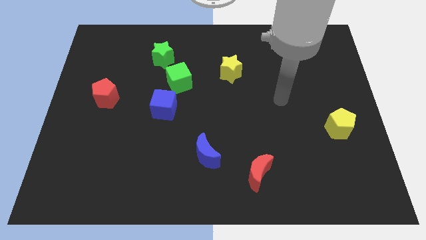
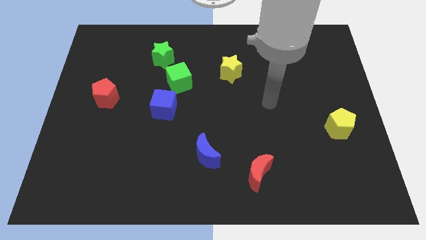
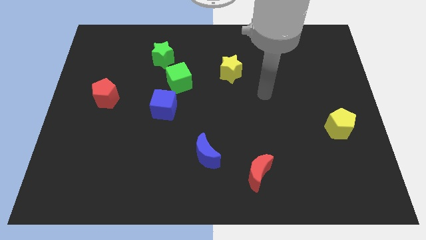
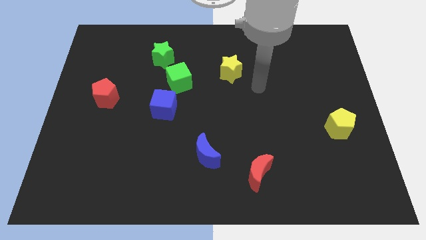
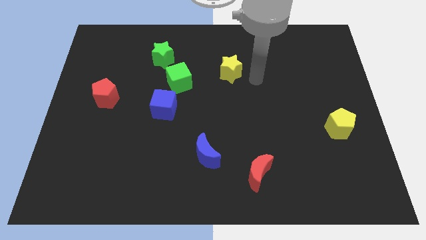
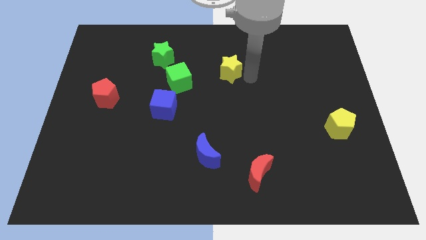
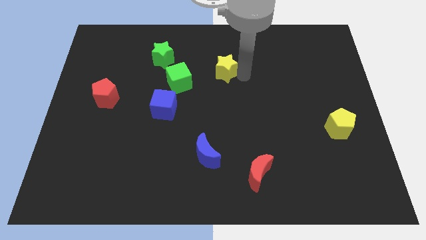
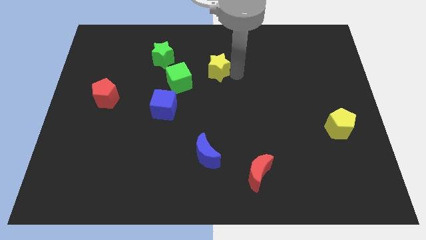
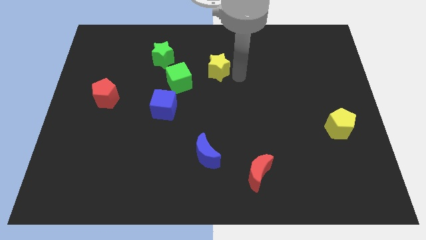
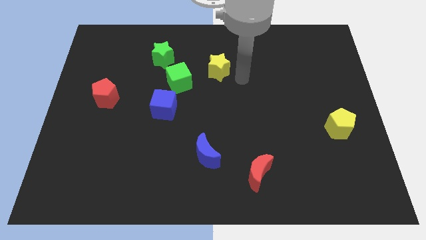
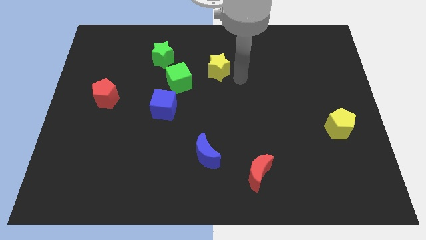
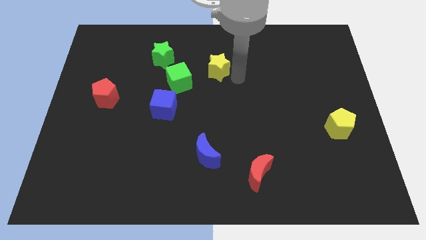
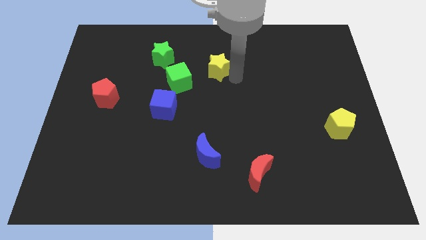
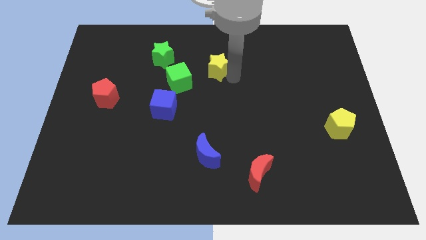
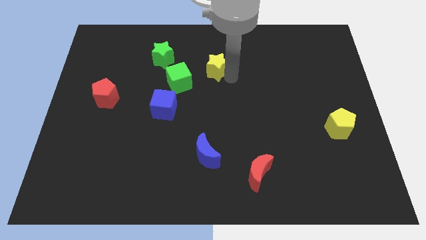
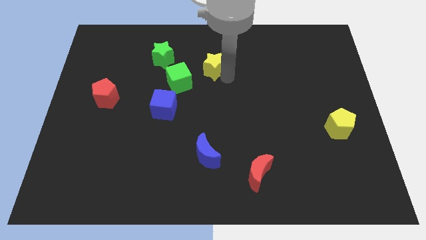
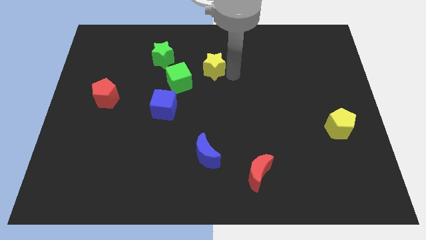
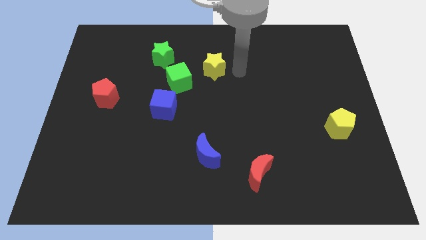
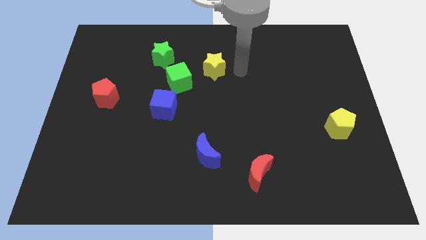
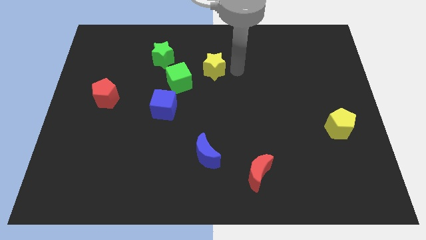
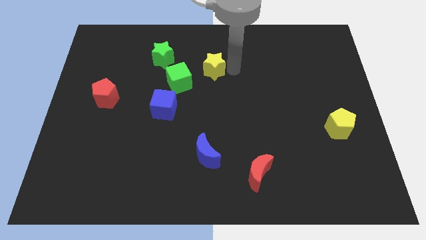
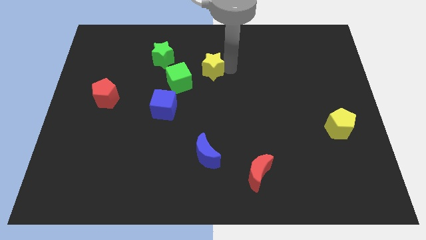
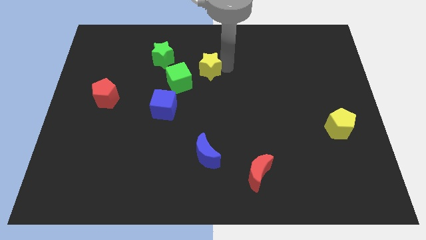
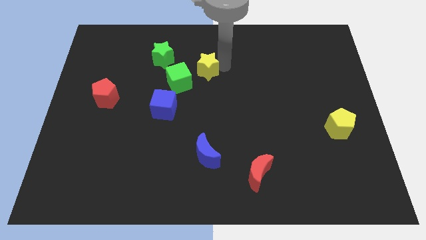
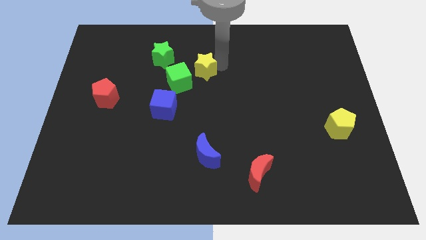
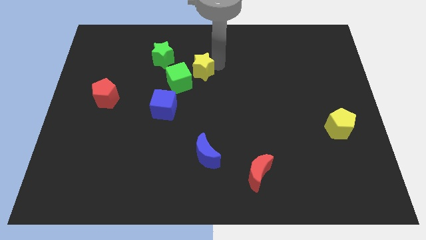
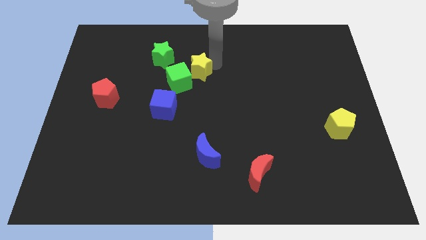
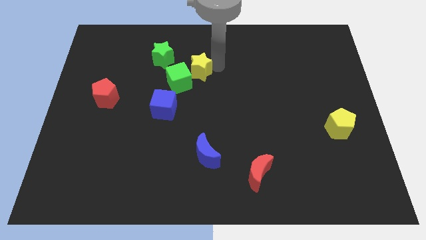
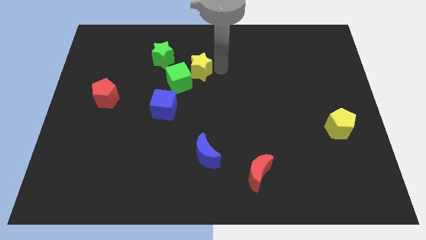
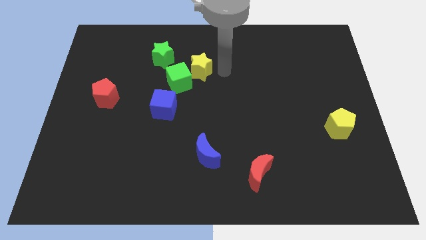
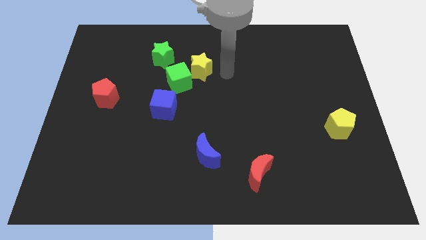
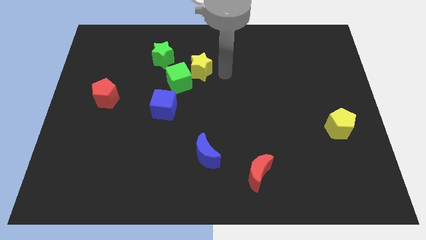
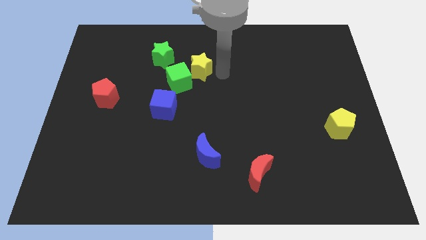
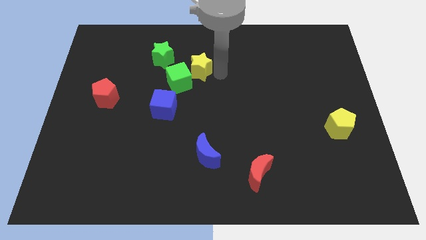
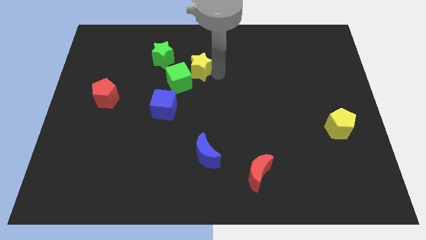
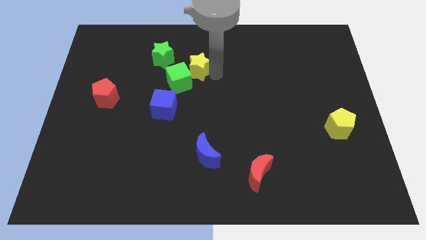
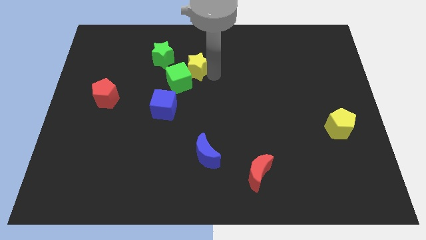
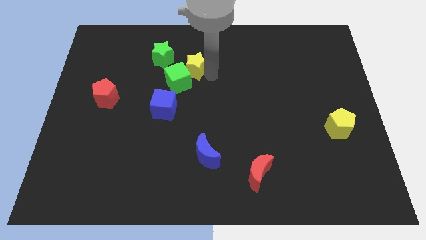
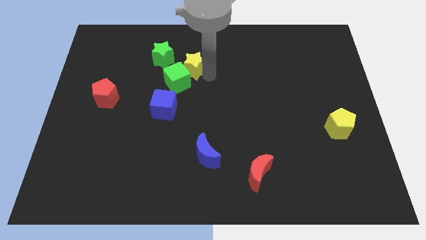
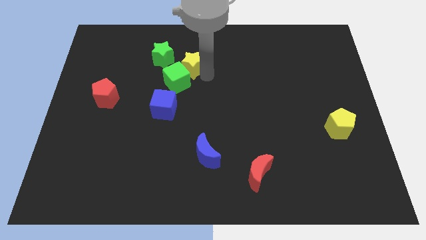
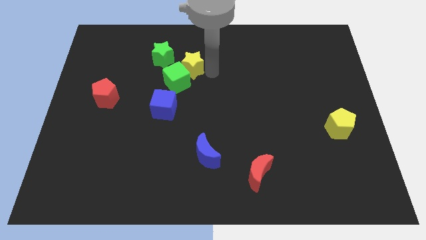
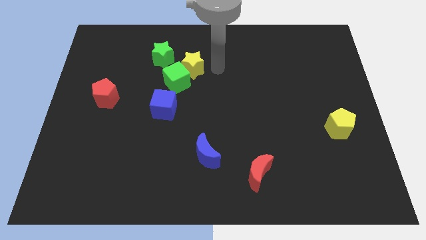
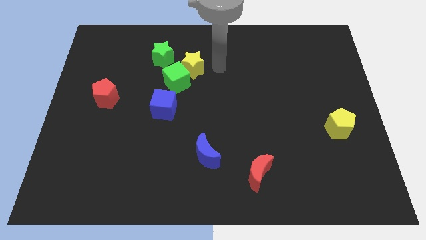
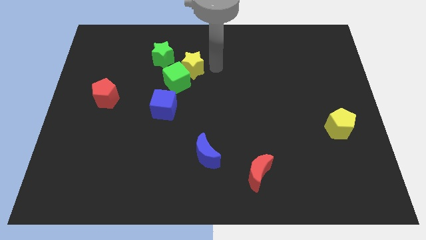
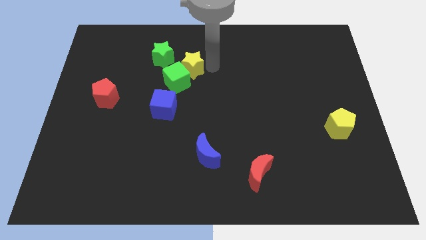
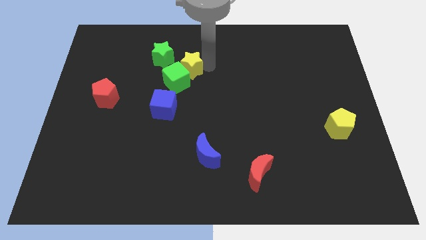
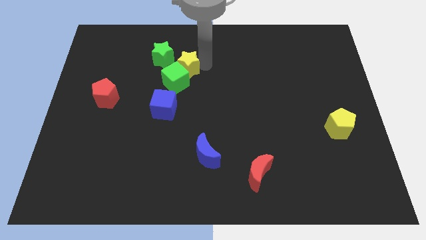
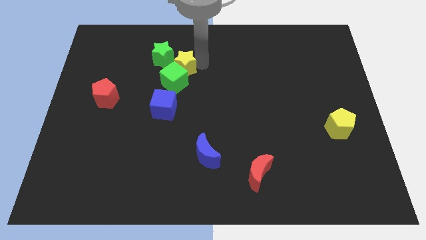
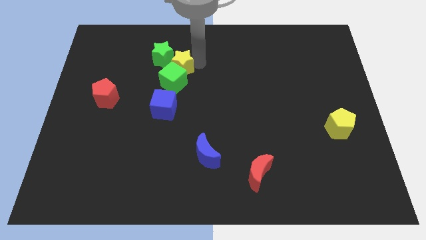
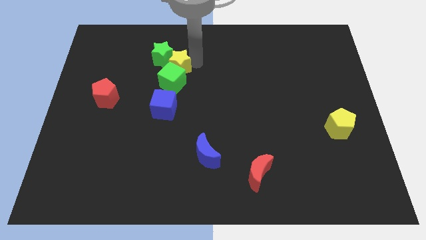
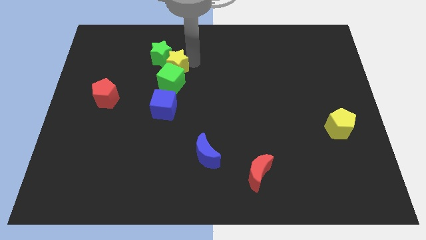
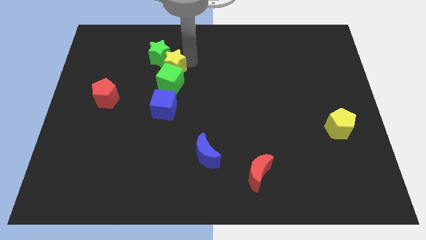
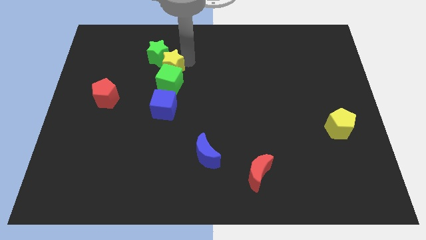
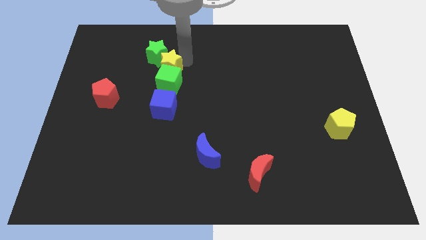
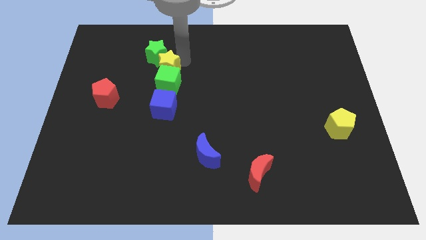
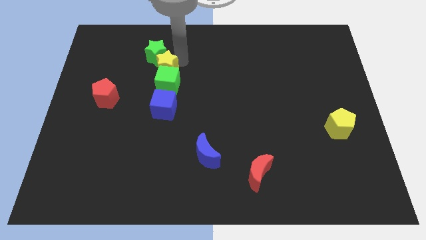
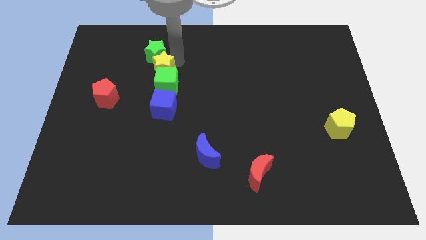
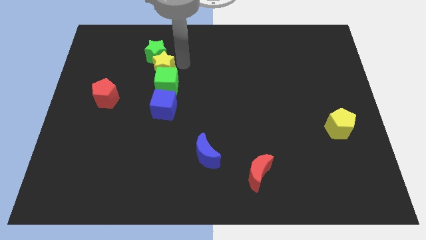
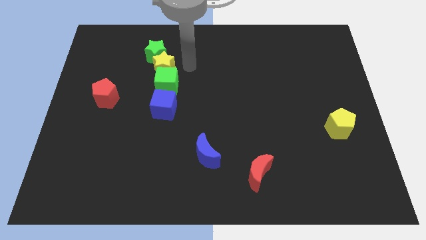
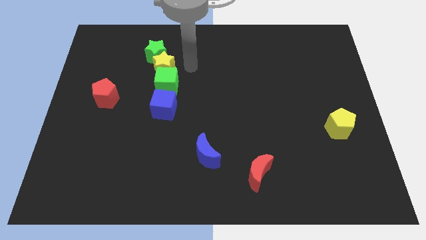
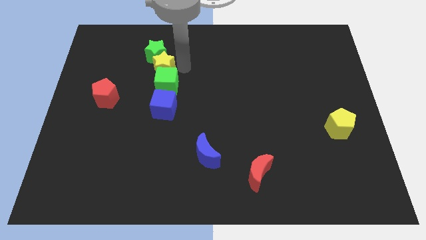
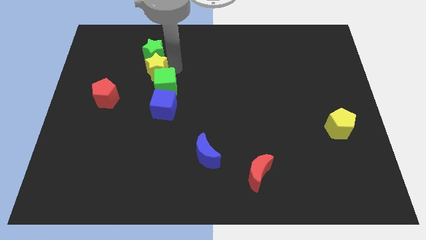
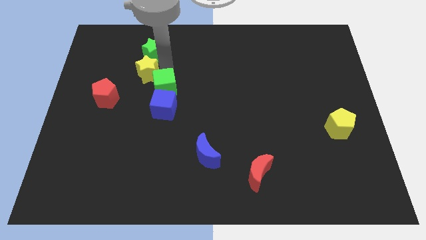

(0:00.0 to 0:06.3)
slide the yellow star left

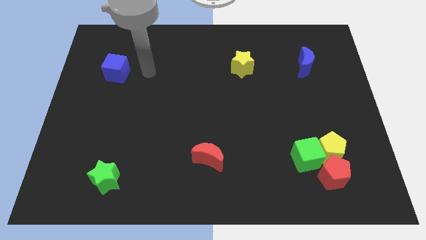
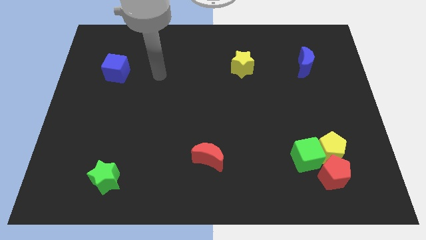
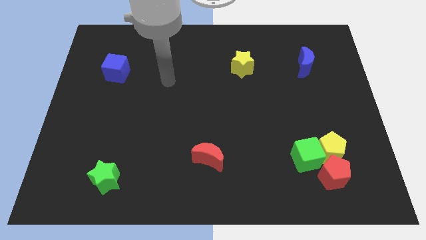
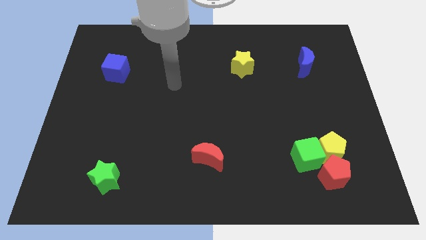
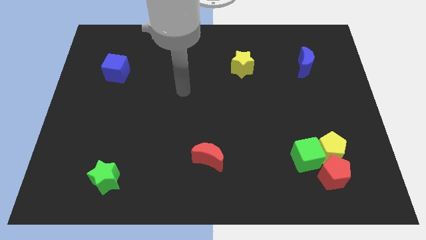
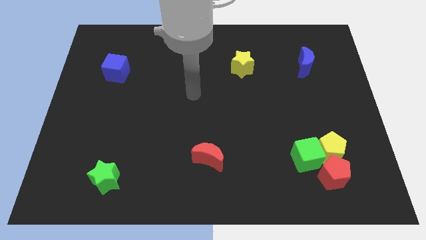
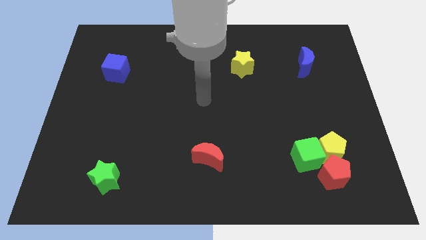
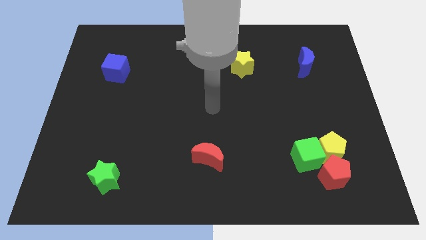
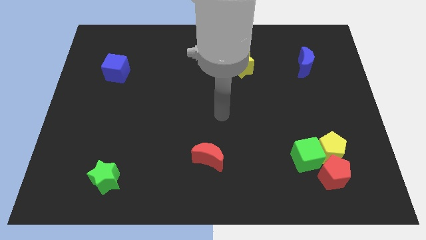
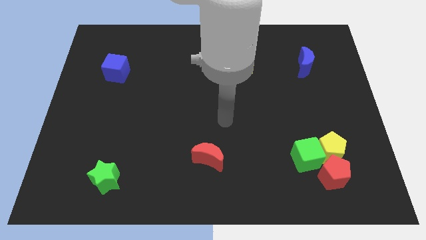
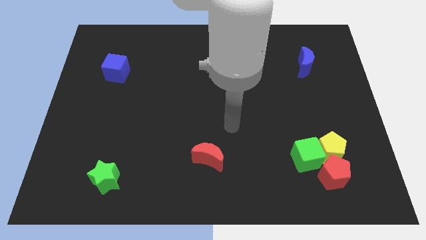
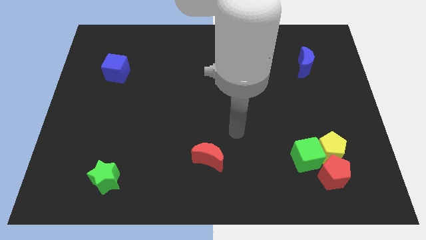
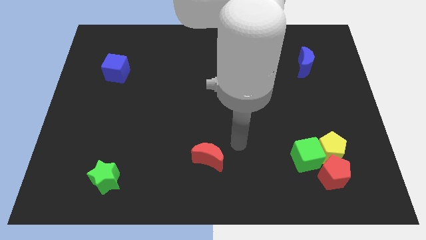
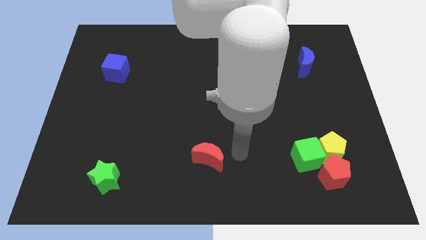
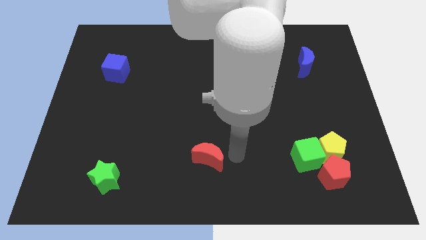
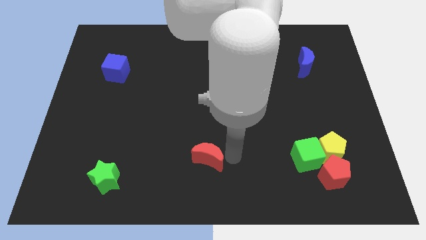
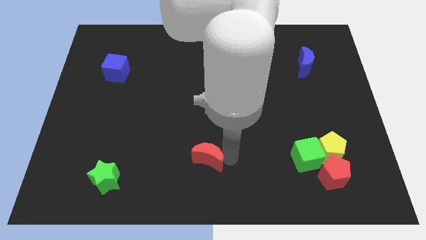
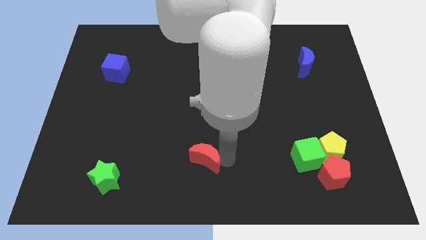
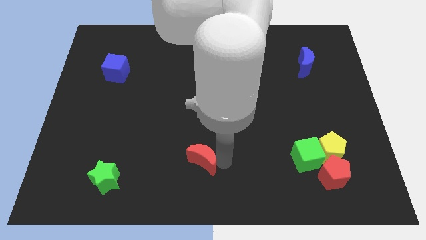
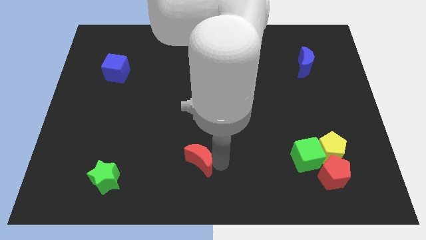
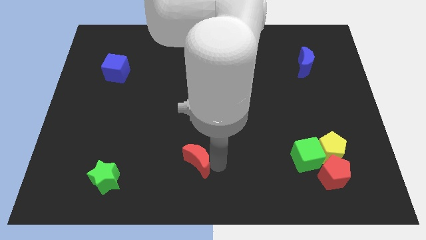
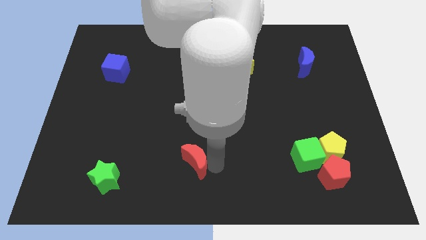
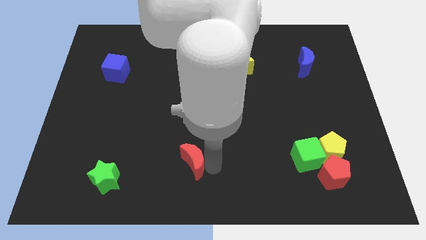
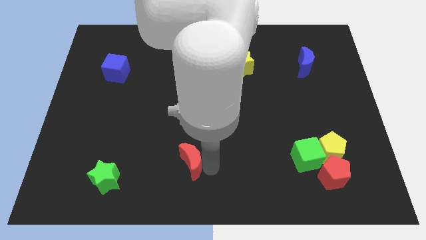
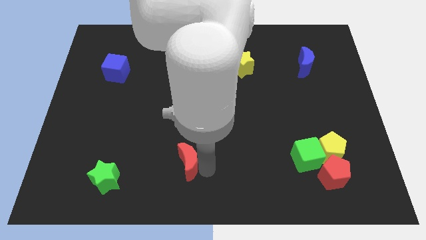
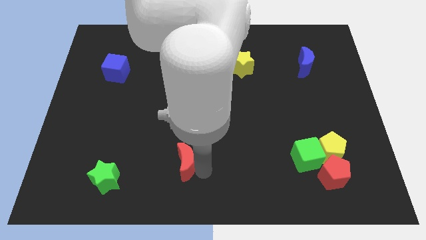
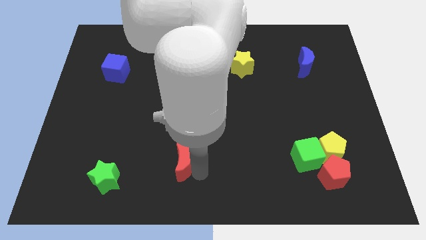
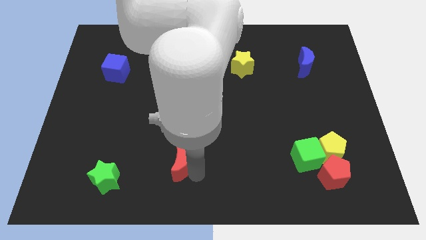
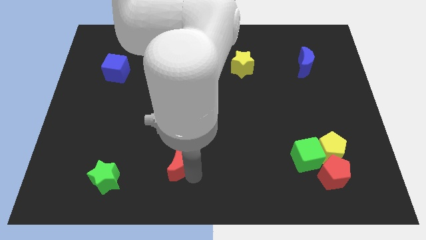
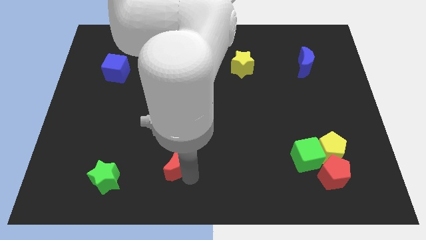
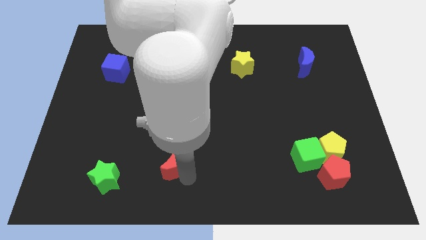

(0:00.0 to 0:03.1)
slide the red moon a bit to the left
